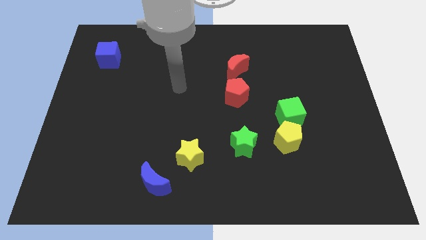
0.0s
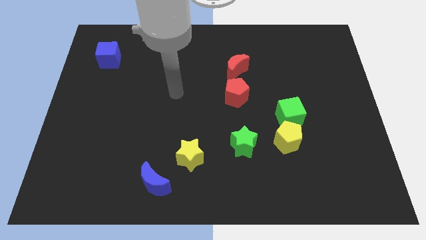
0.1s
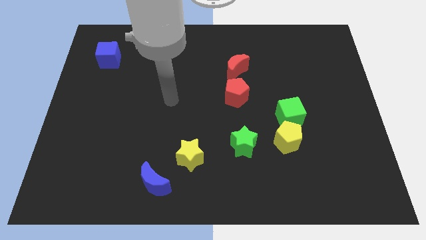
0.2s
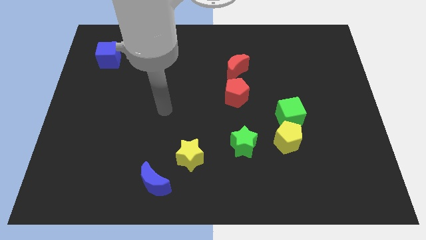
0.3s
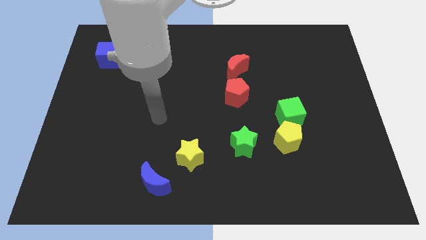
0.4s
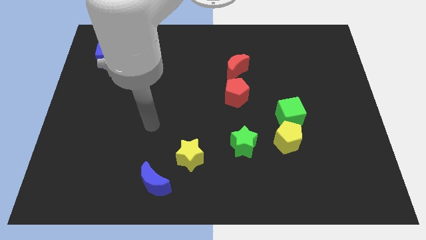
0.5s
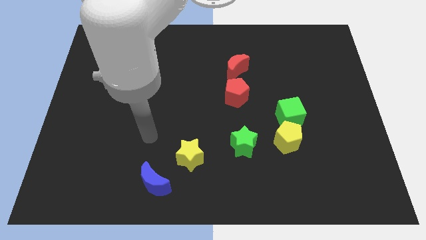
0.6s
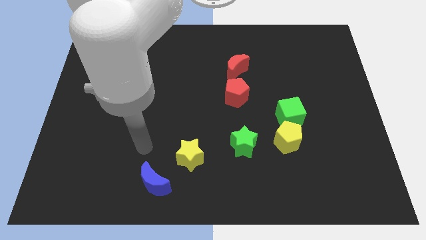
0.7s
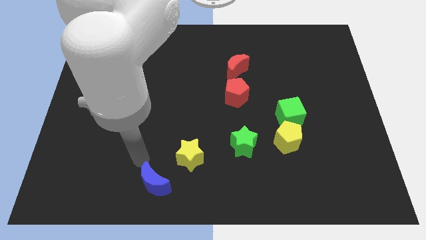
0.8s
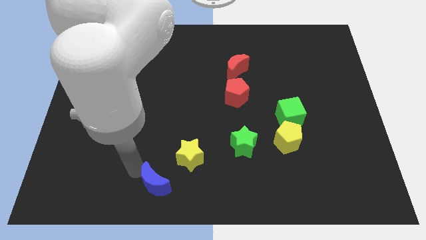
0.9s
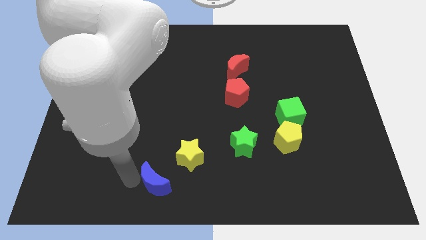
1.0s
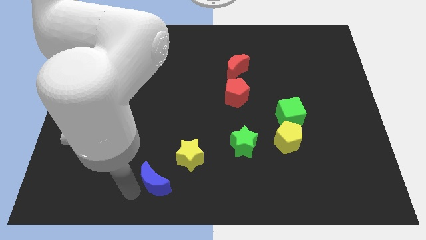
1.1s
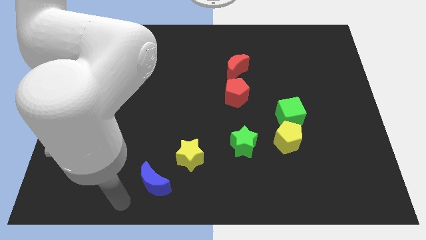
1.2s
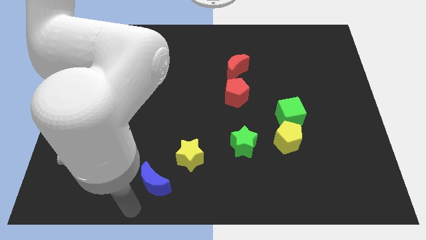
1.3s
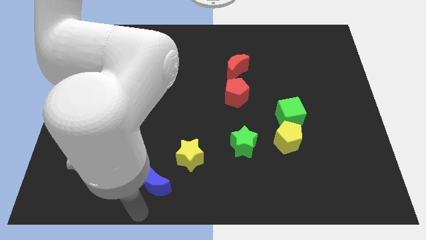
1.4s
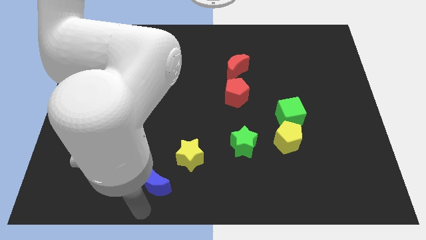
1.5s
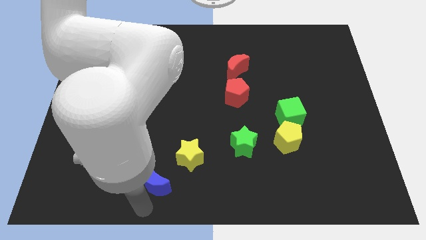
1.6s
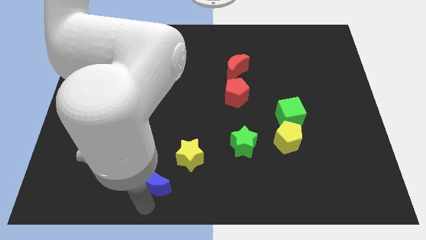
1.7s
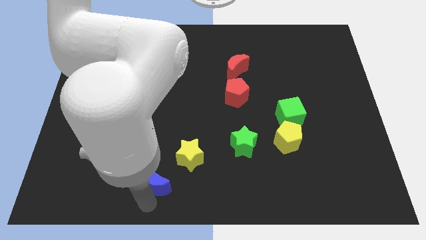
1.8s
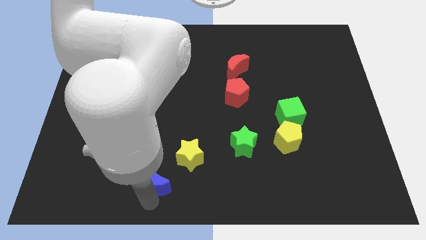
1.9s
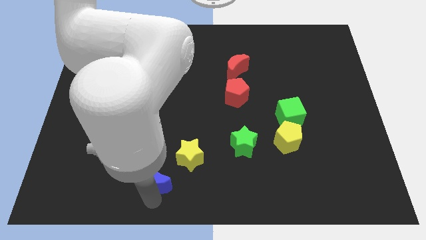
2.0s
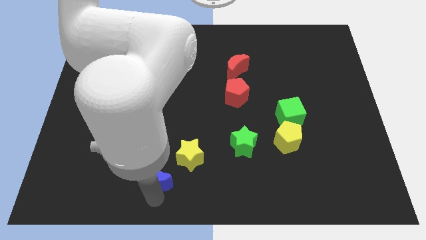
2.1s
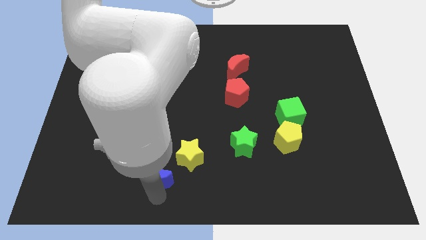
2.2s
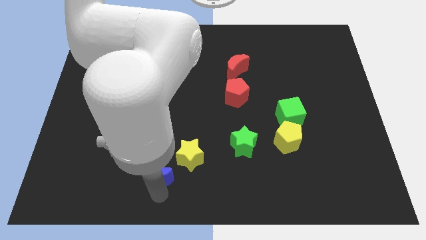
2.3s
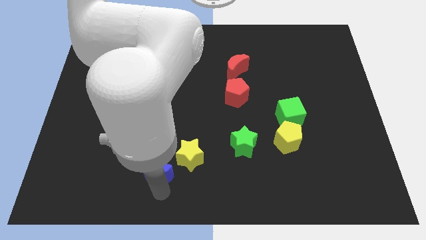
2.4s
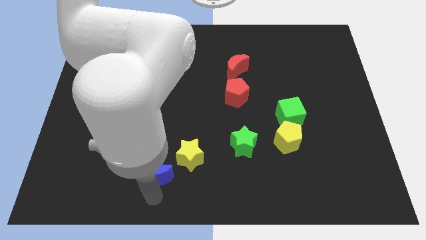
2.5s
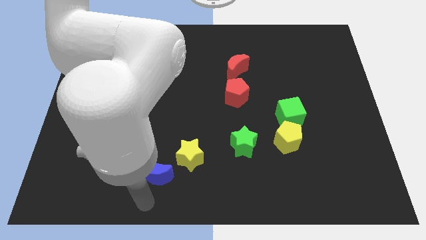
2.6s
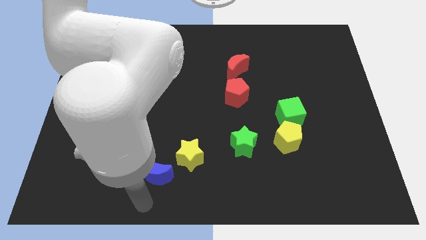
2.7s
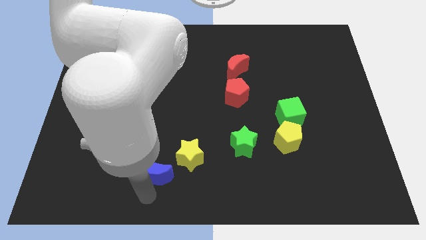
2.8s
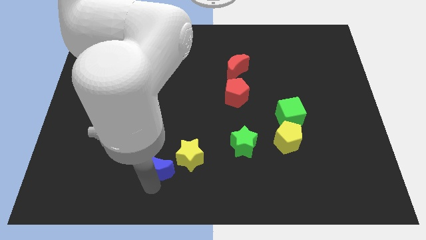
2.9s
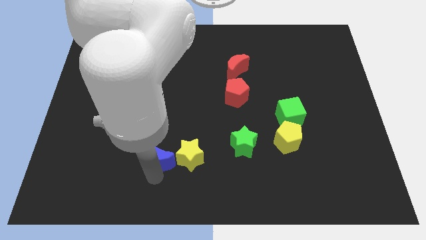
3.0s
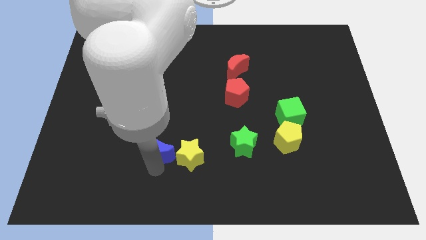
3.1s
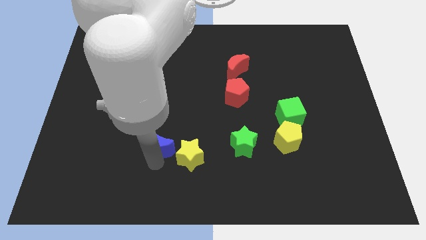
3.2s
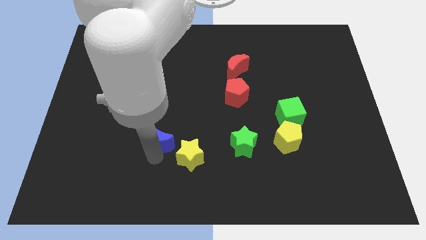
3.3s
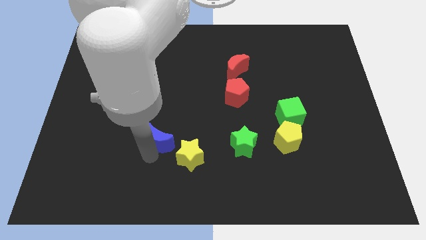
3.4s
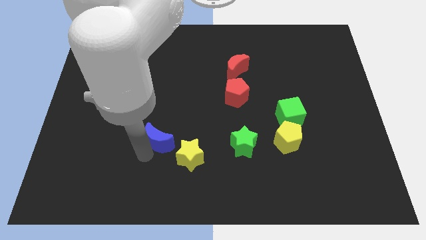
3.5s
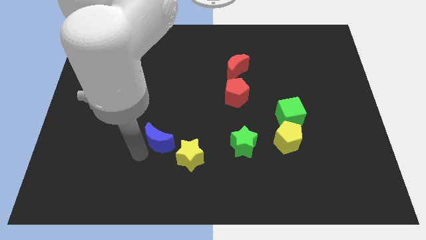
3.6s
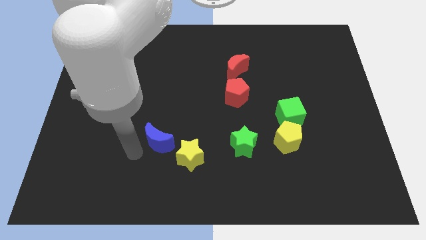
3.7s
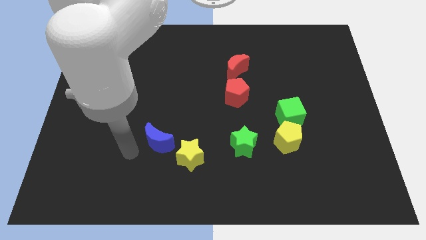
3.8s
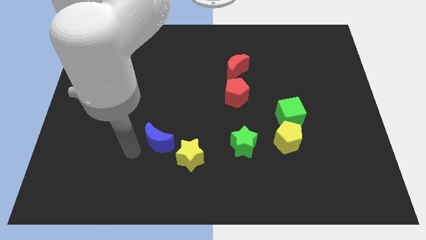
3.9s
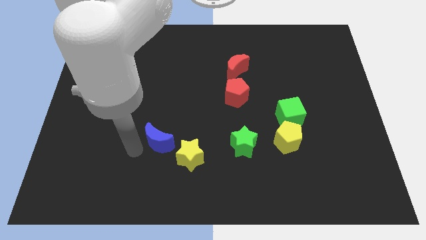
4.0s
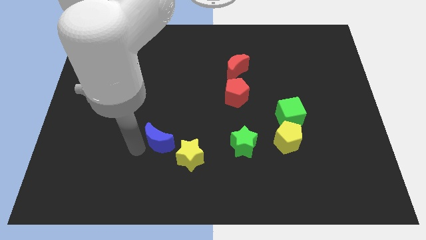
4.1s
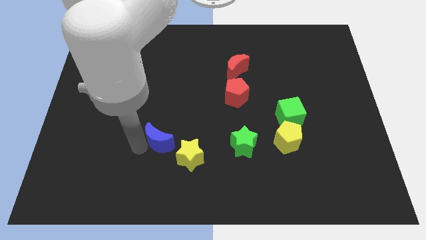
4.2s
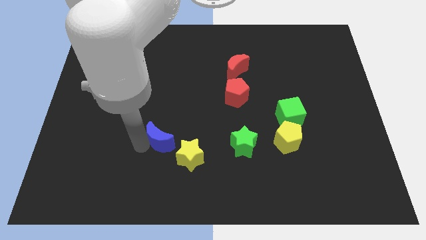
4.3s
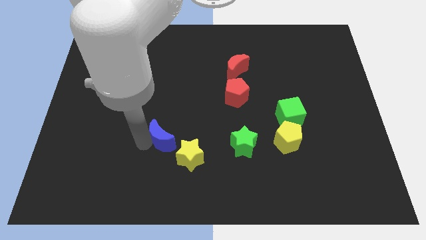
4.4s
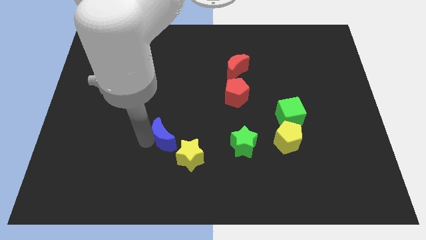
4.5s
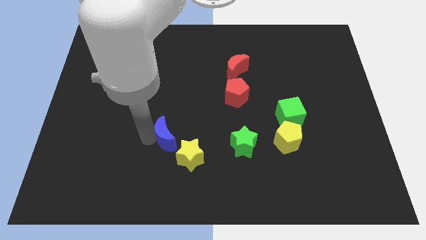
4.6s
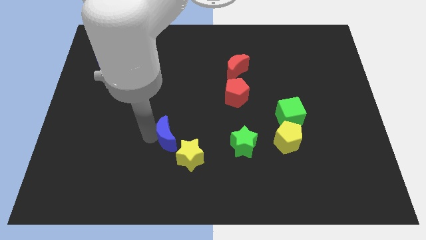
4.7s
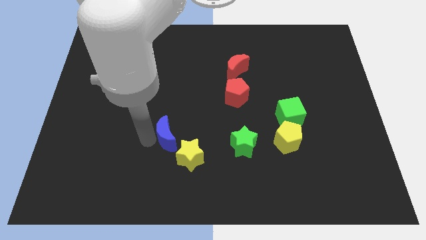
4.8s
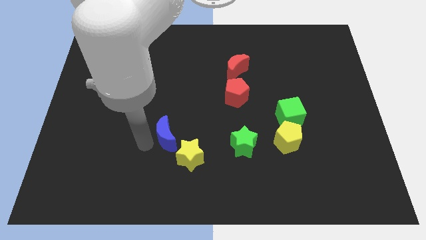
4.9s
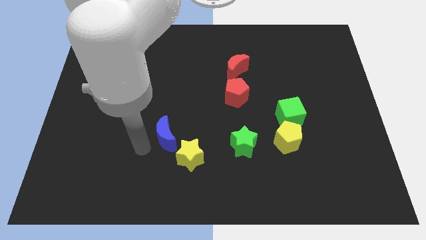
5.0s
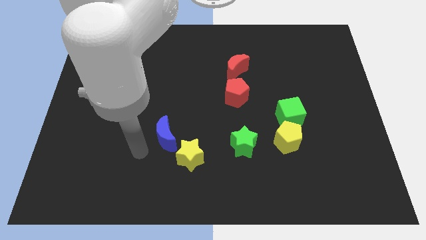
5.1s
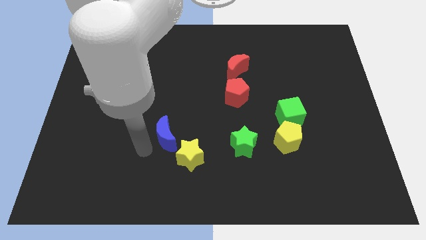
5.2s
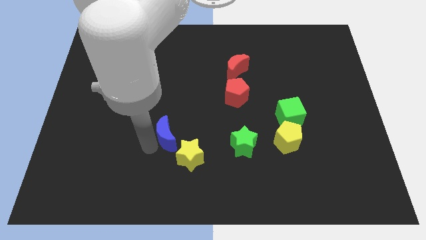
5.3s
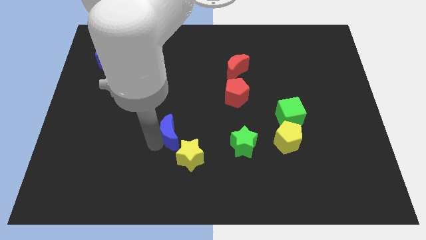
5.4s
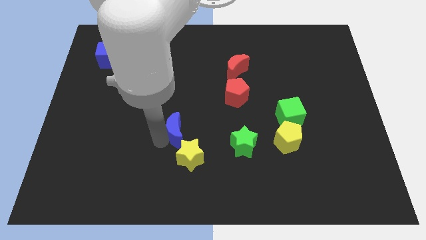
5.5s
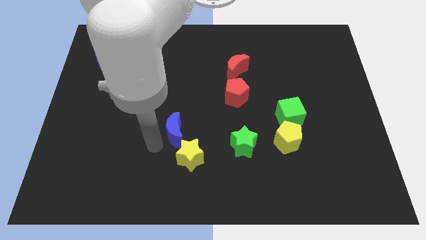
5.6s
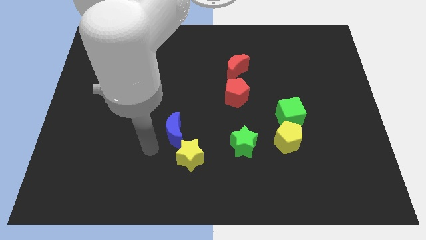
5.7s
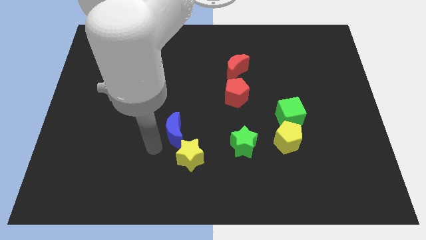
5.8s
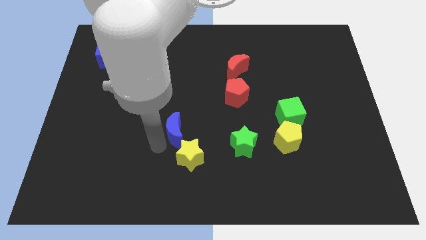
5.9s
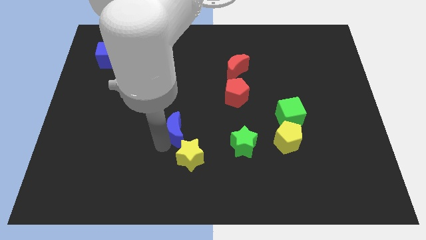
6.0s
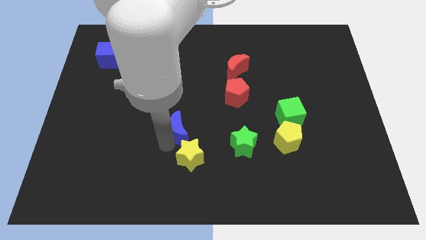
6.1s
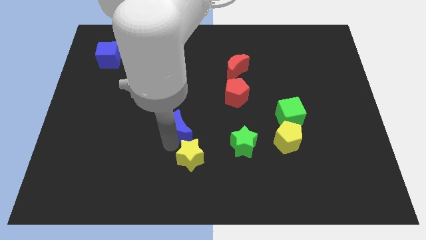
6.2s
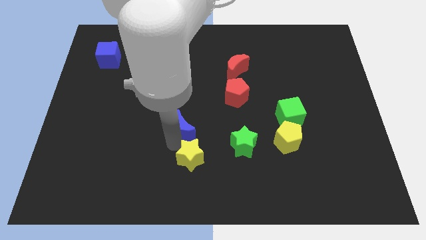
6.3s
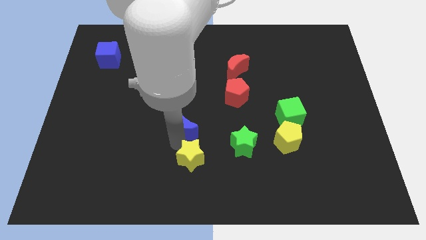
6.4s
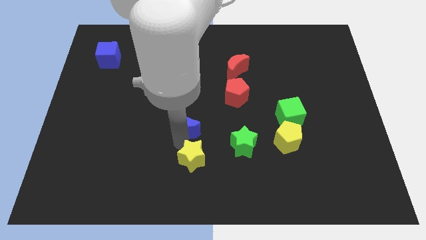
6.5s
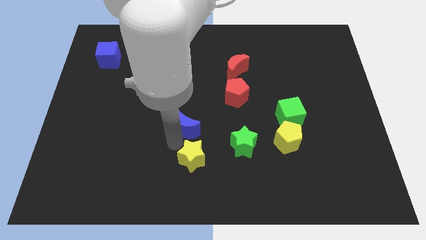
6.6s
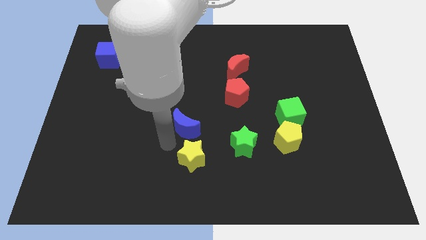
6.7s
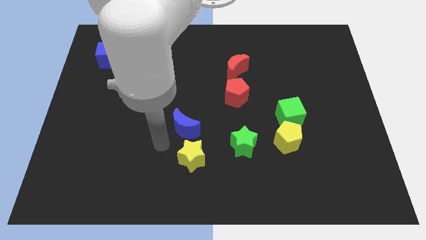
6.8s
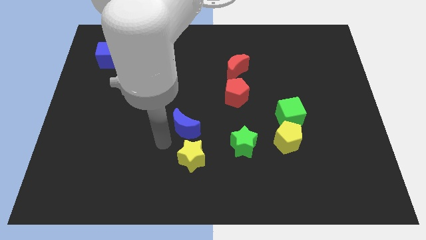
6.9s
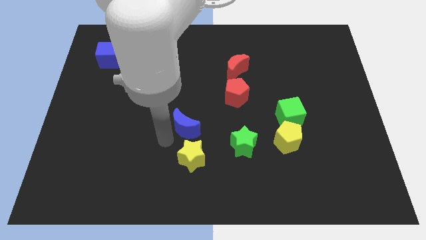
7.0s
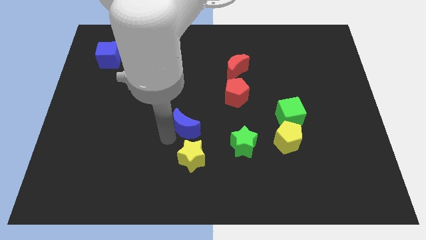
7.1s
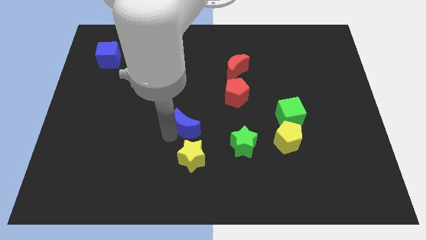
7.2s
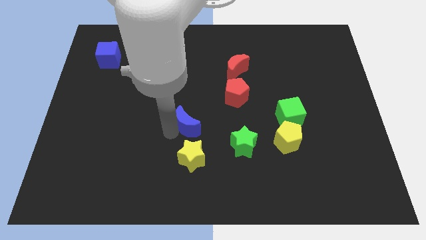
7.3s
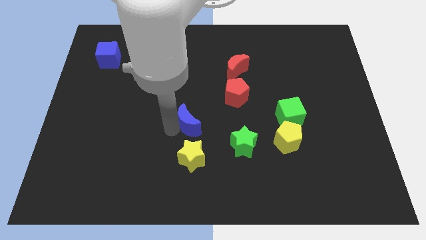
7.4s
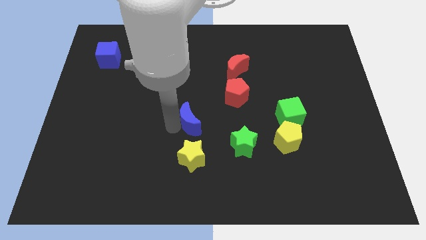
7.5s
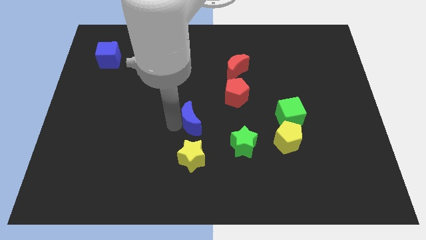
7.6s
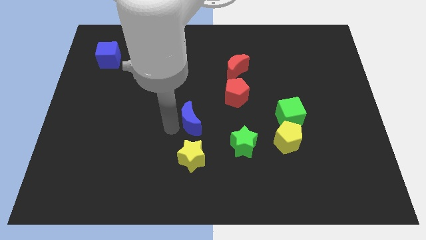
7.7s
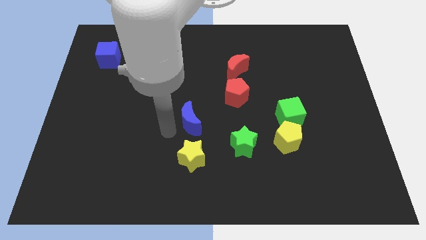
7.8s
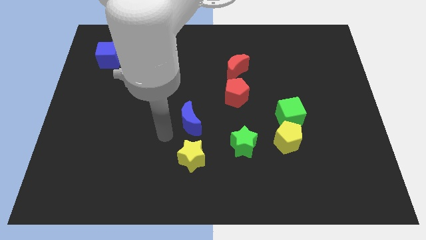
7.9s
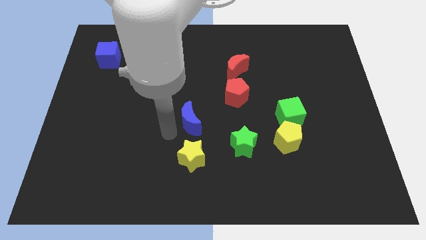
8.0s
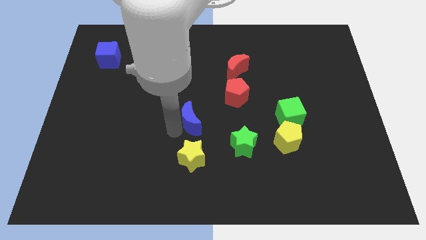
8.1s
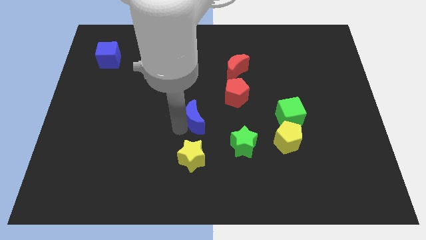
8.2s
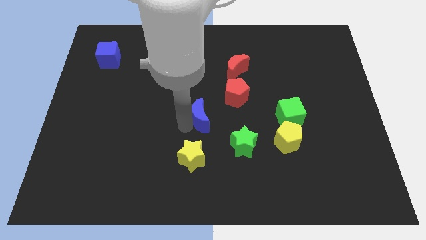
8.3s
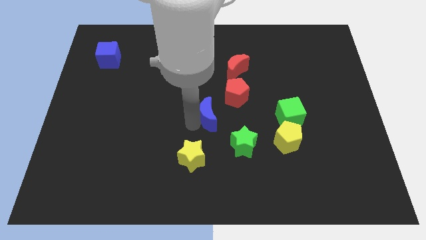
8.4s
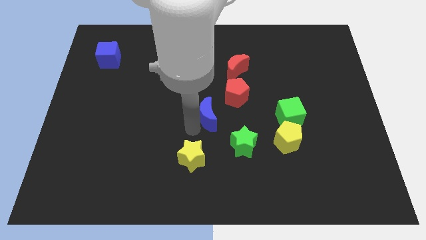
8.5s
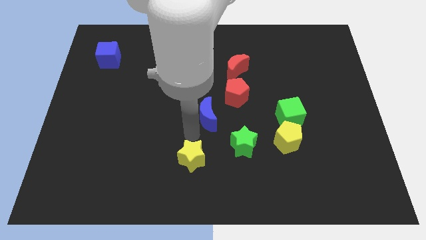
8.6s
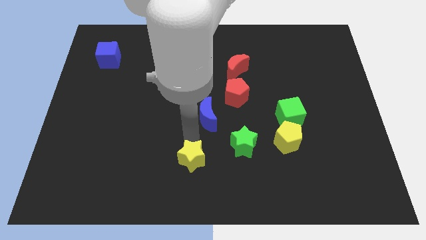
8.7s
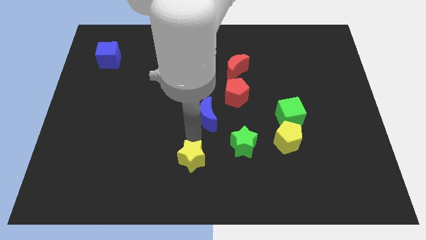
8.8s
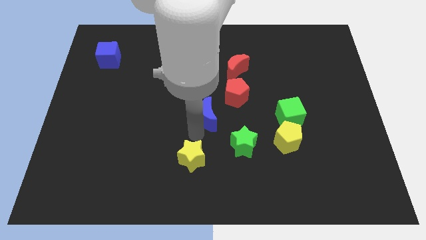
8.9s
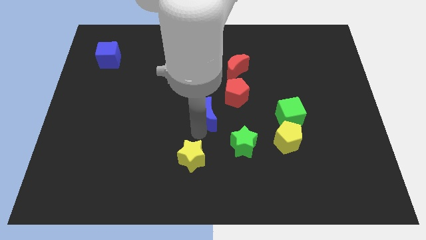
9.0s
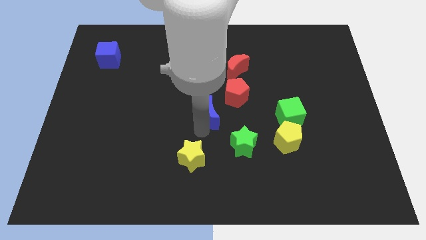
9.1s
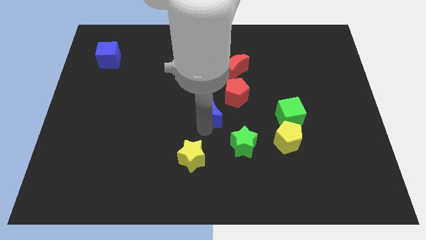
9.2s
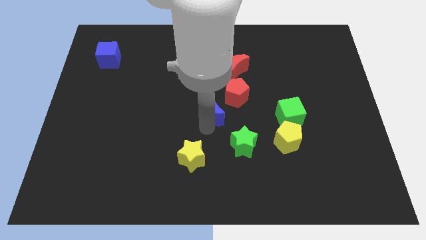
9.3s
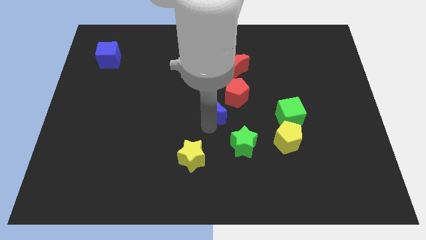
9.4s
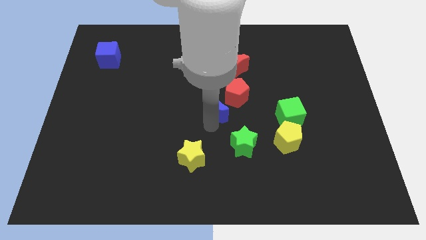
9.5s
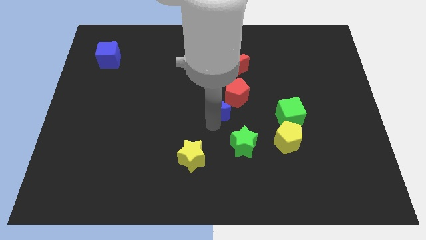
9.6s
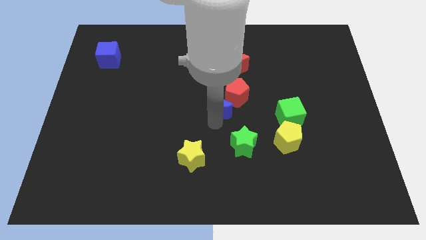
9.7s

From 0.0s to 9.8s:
slide the blue moon towards the red pentagon
